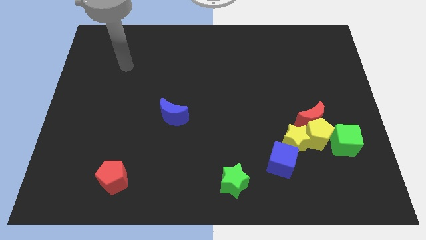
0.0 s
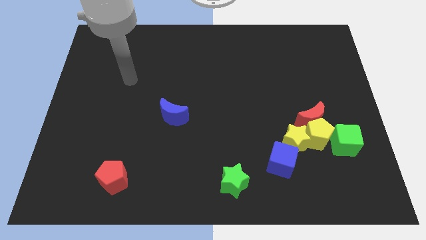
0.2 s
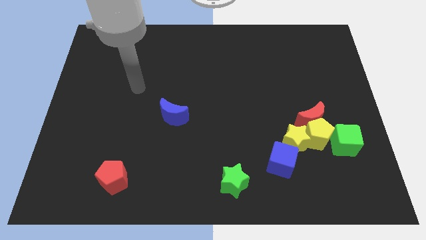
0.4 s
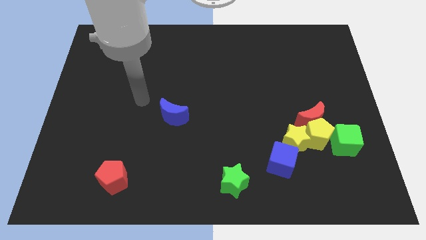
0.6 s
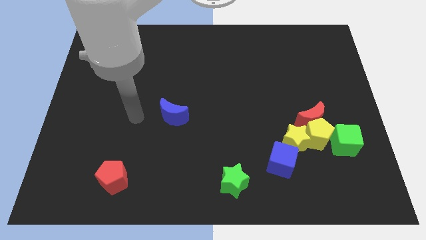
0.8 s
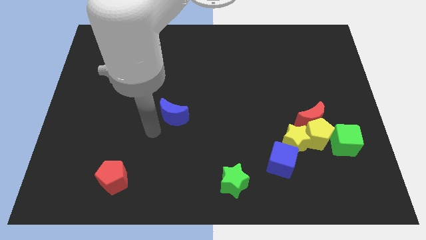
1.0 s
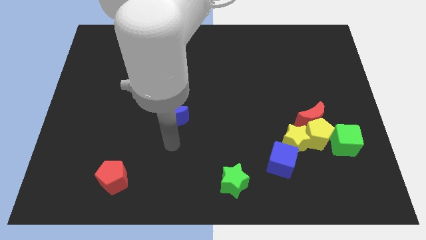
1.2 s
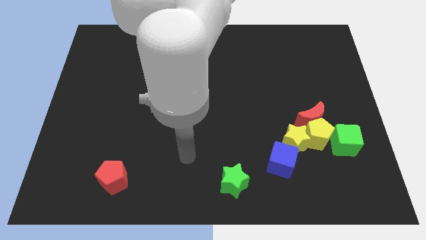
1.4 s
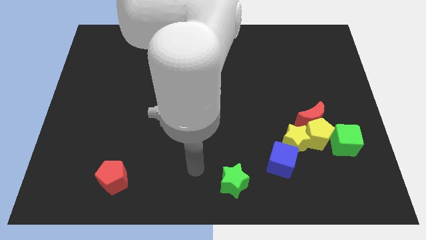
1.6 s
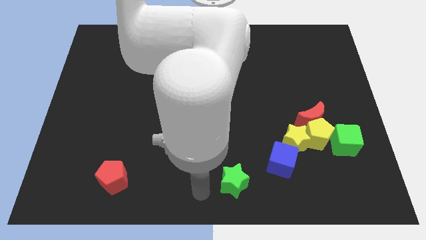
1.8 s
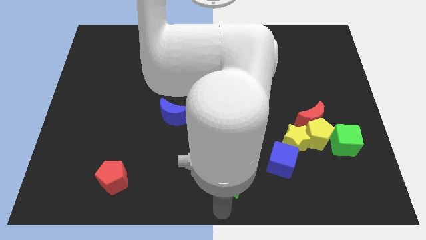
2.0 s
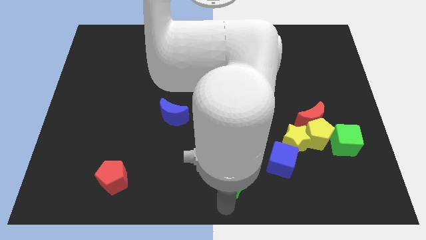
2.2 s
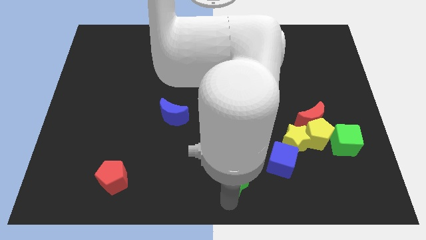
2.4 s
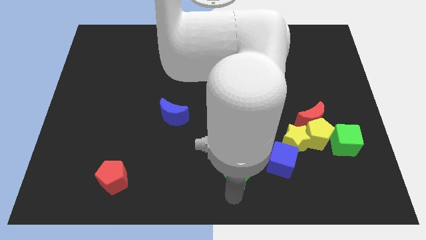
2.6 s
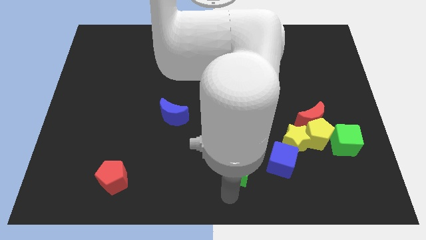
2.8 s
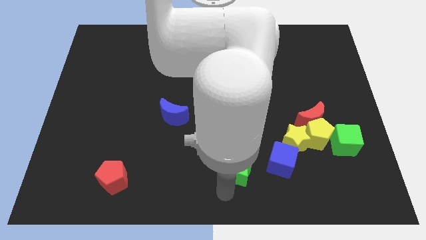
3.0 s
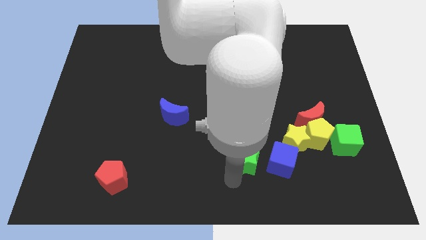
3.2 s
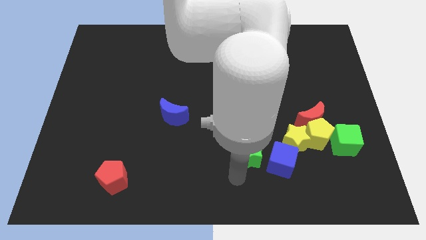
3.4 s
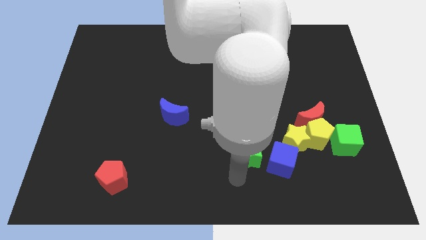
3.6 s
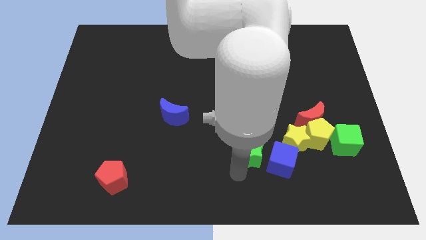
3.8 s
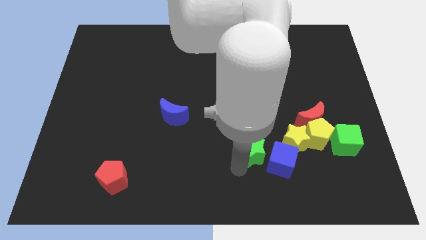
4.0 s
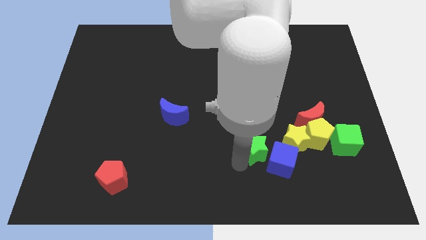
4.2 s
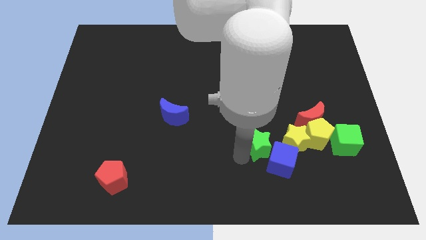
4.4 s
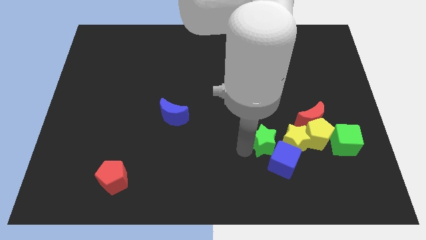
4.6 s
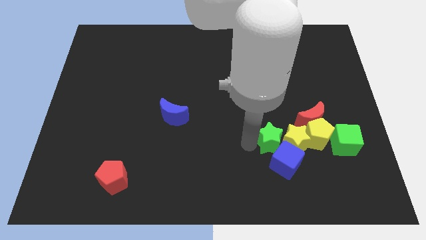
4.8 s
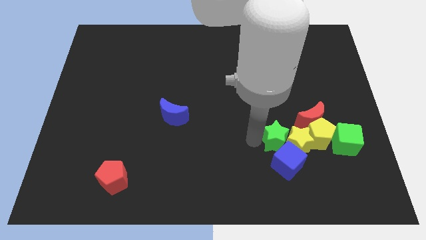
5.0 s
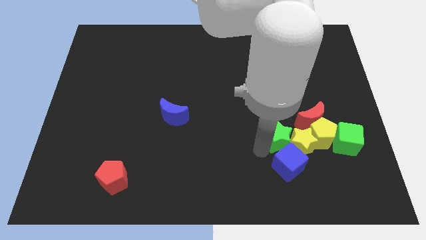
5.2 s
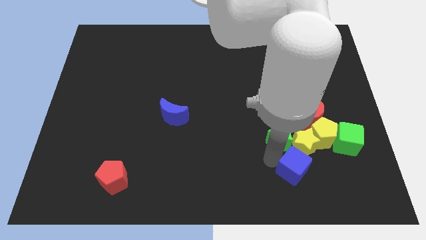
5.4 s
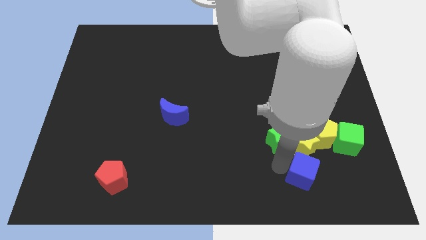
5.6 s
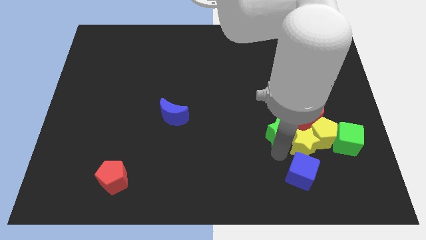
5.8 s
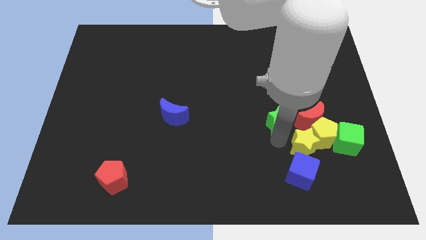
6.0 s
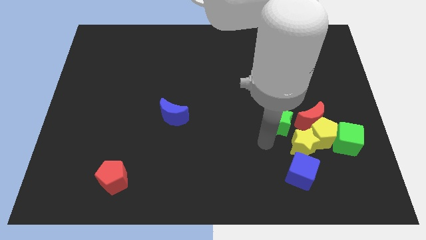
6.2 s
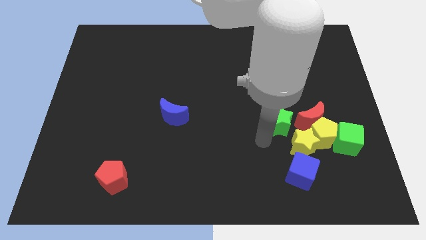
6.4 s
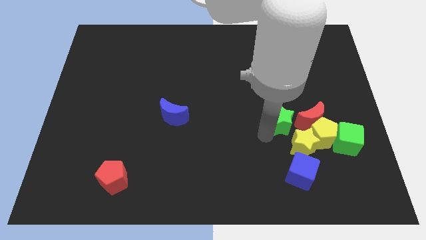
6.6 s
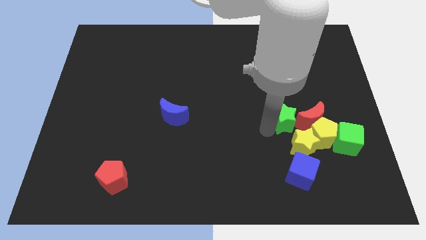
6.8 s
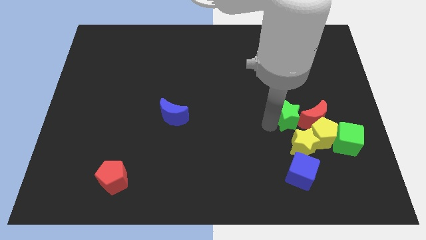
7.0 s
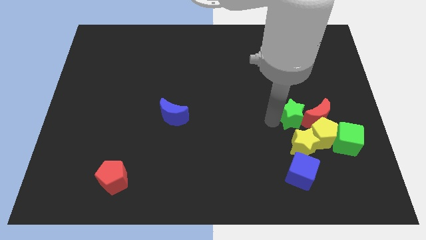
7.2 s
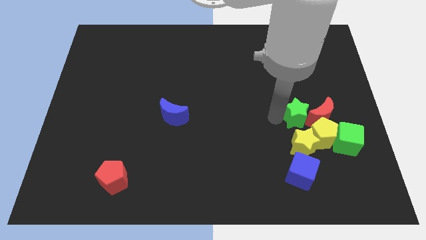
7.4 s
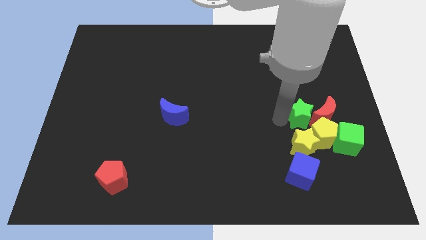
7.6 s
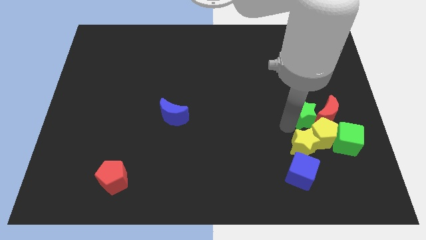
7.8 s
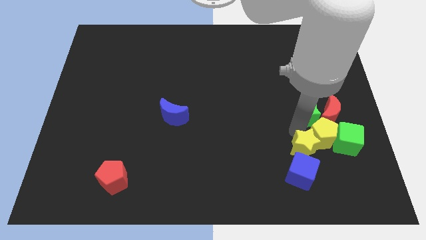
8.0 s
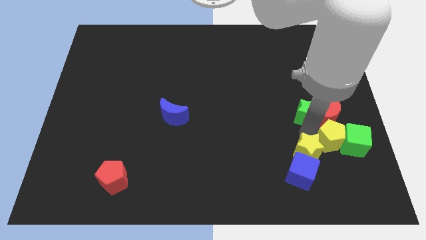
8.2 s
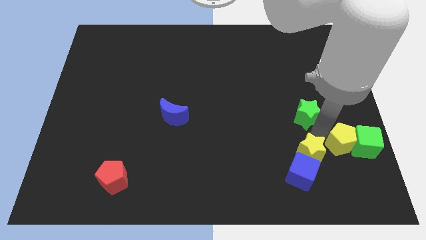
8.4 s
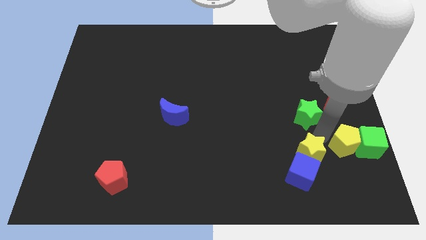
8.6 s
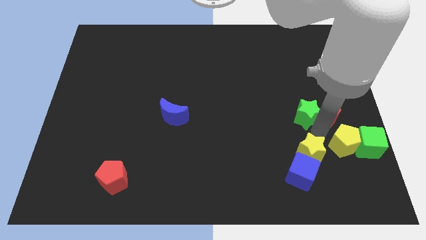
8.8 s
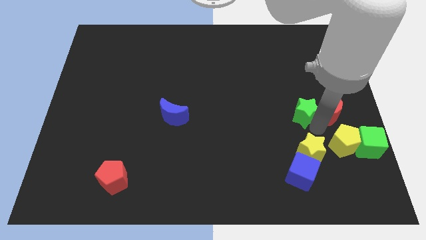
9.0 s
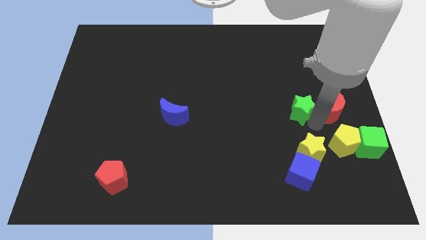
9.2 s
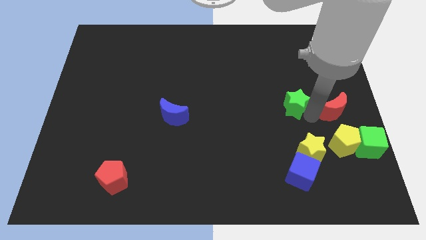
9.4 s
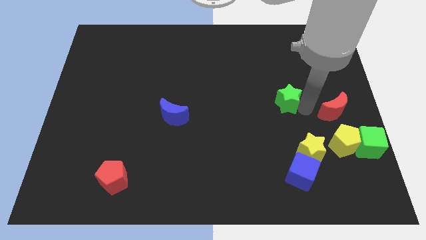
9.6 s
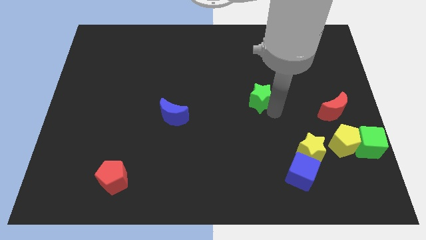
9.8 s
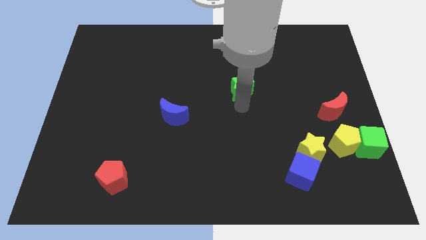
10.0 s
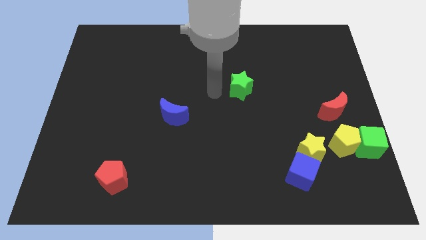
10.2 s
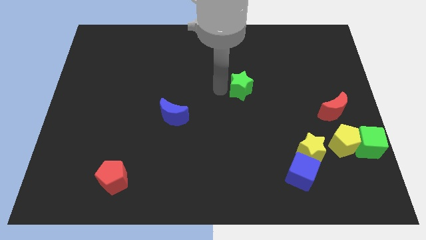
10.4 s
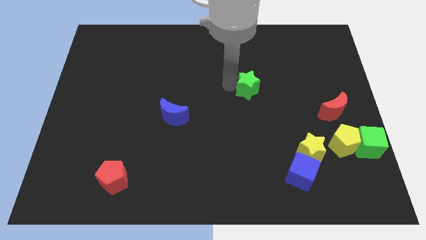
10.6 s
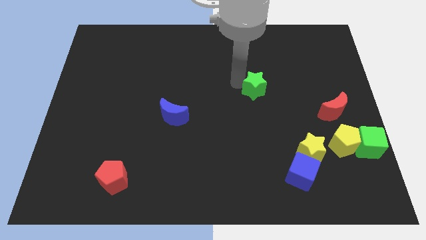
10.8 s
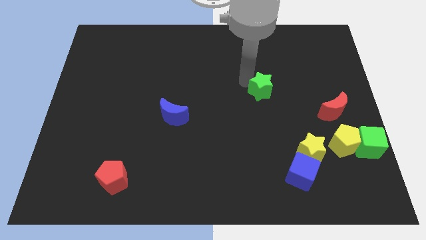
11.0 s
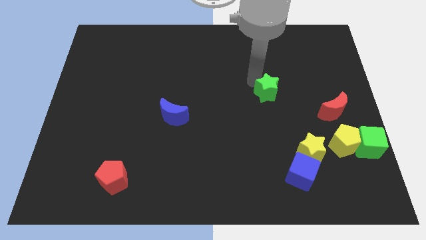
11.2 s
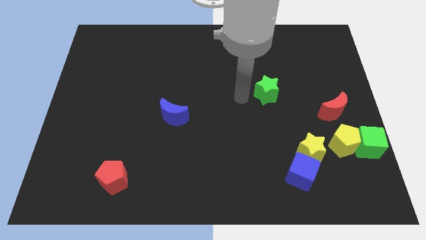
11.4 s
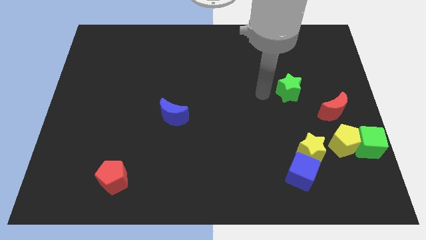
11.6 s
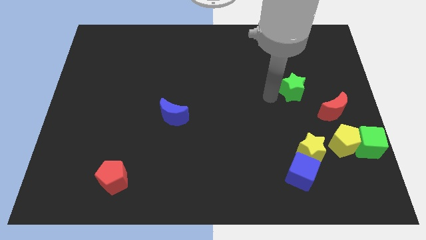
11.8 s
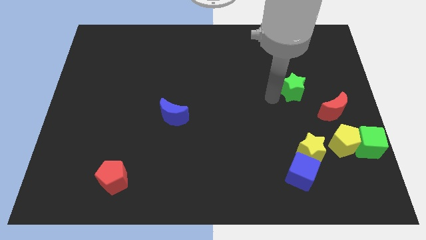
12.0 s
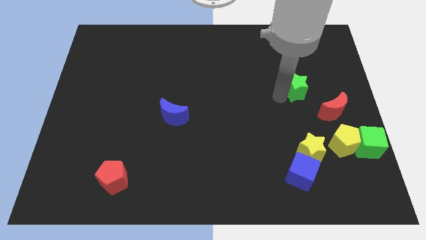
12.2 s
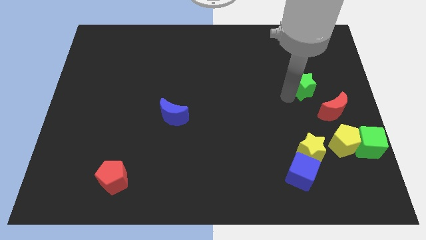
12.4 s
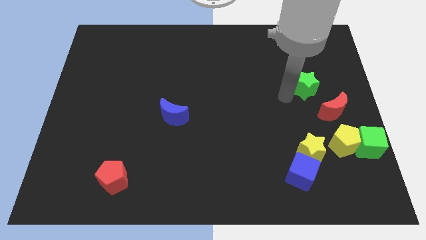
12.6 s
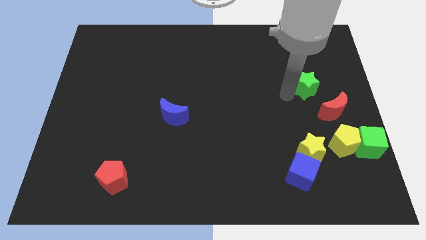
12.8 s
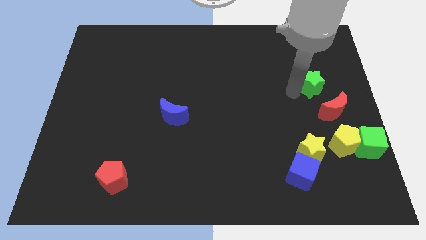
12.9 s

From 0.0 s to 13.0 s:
put the green star to the top side of the red moon

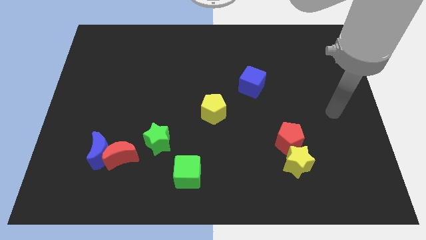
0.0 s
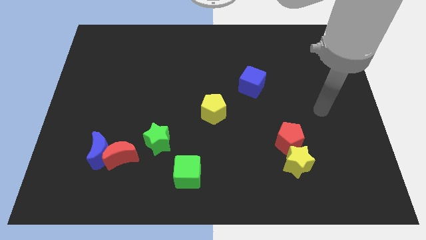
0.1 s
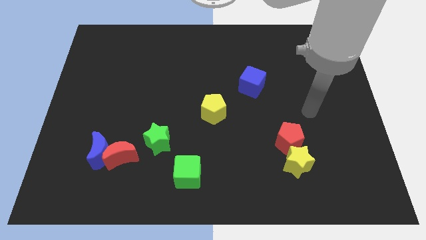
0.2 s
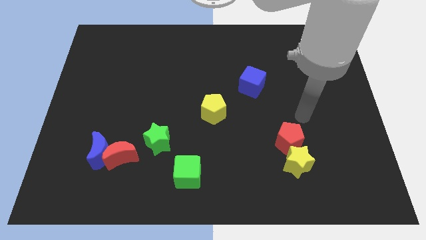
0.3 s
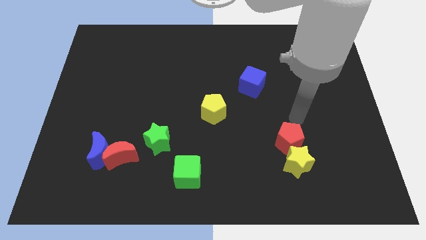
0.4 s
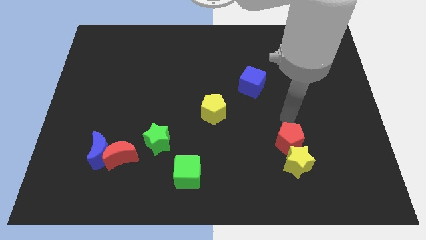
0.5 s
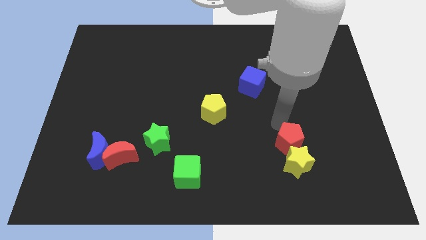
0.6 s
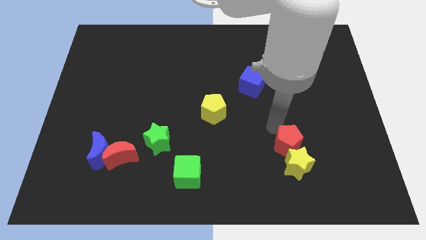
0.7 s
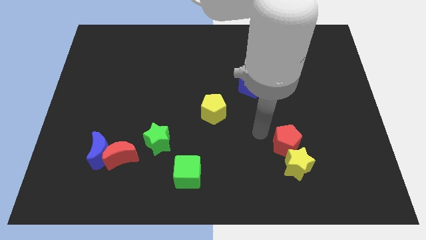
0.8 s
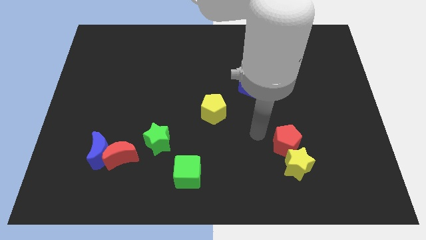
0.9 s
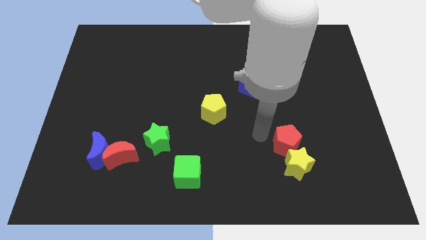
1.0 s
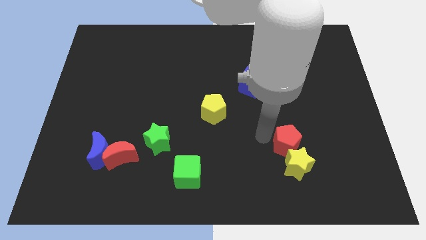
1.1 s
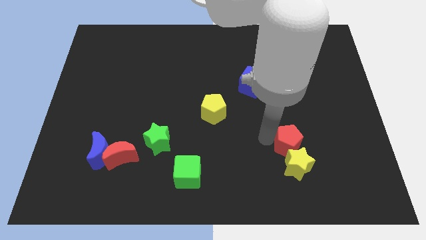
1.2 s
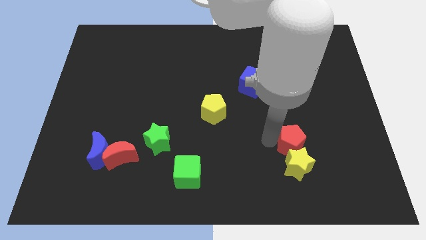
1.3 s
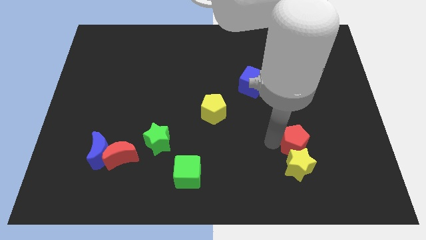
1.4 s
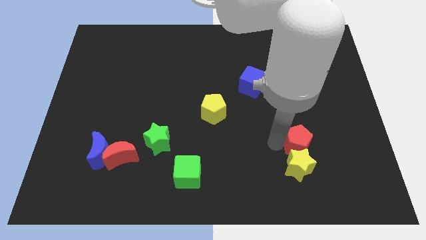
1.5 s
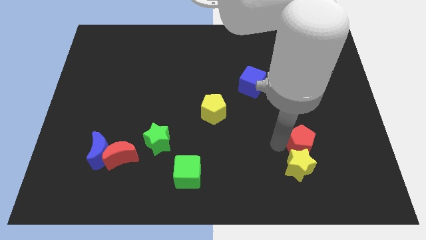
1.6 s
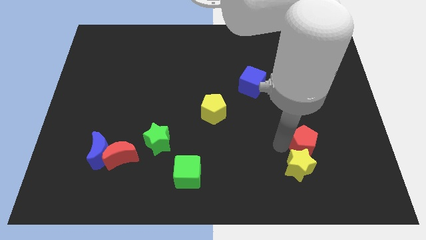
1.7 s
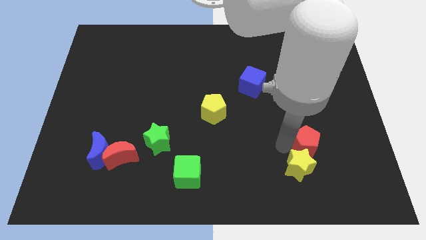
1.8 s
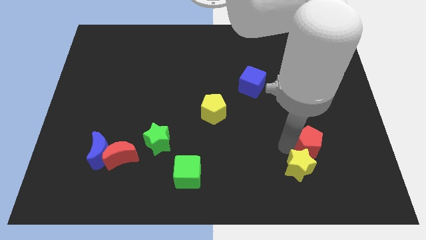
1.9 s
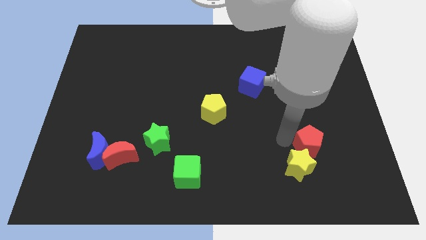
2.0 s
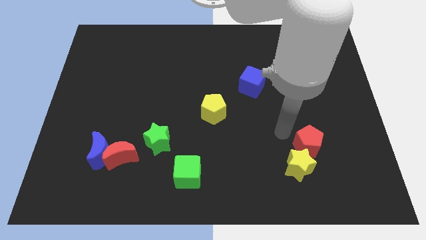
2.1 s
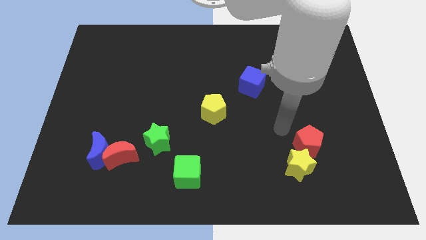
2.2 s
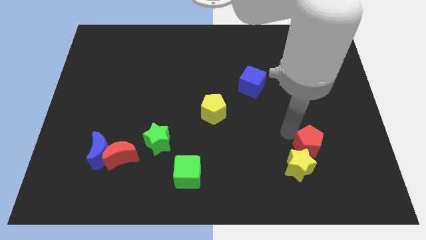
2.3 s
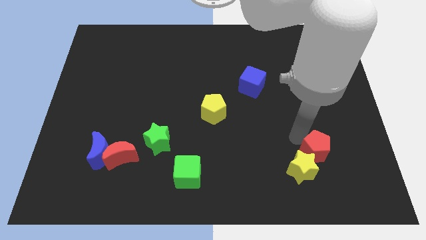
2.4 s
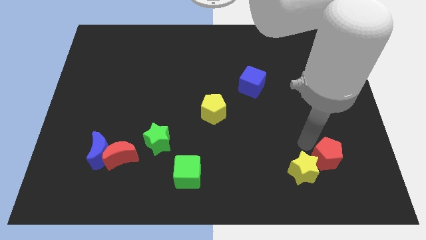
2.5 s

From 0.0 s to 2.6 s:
slide the red pentagon to the right side of the yellow star
